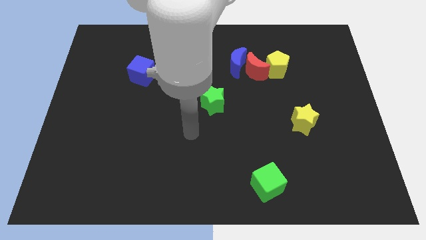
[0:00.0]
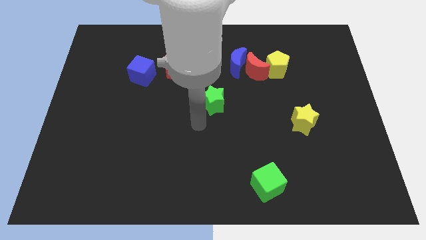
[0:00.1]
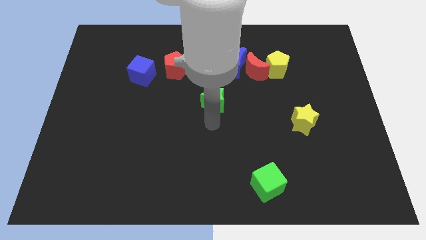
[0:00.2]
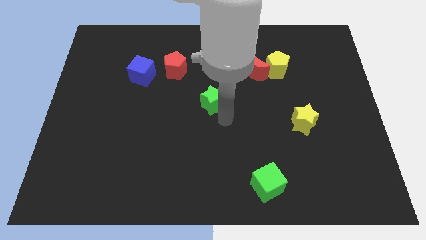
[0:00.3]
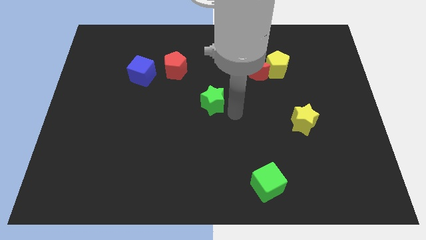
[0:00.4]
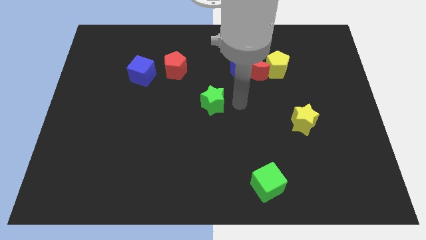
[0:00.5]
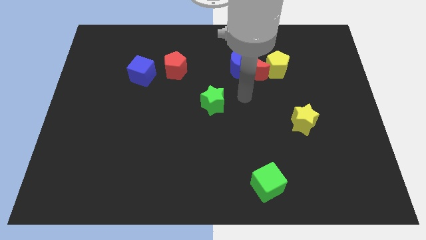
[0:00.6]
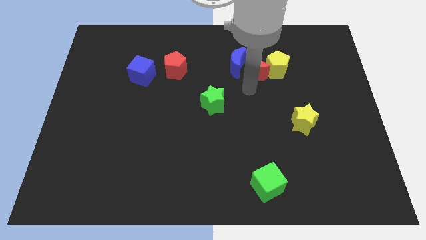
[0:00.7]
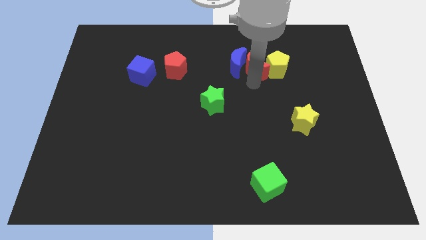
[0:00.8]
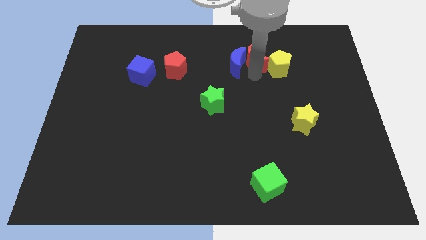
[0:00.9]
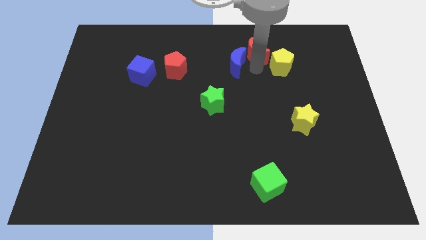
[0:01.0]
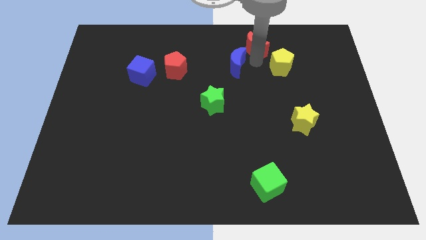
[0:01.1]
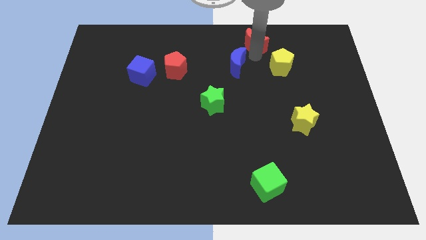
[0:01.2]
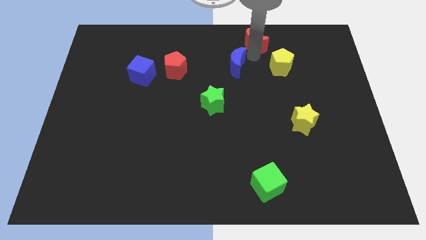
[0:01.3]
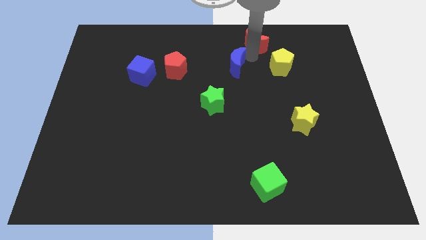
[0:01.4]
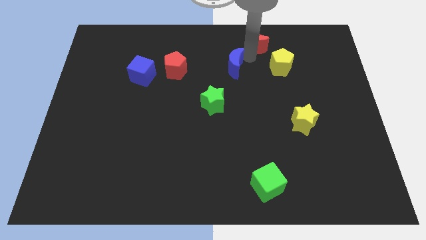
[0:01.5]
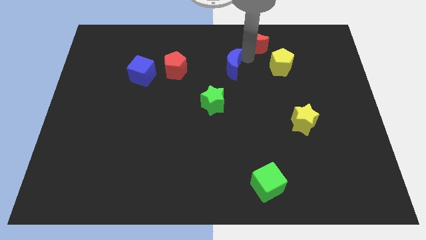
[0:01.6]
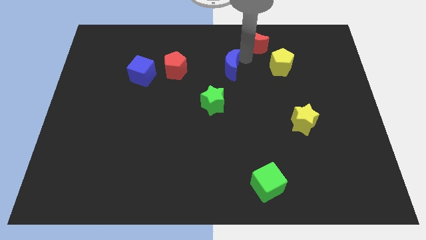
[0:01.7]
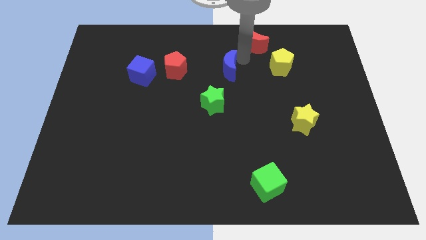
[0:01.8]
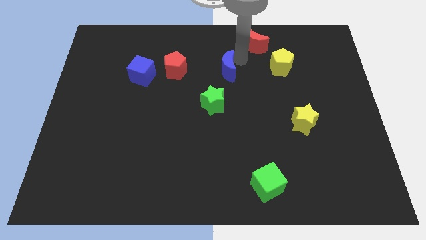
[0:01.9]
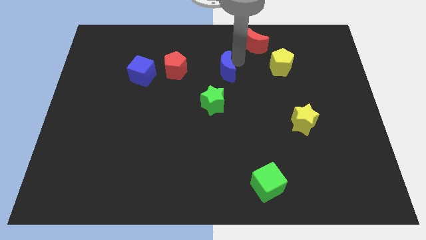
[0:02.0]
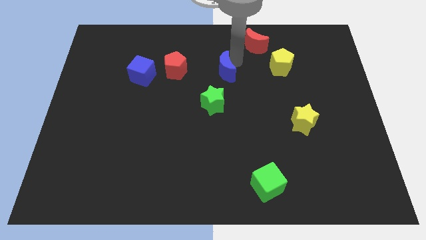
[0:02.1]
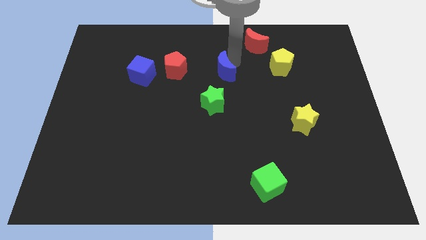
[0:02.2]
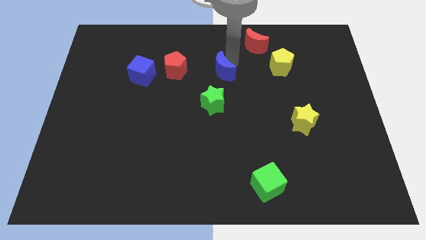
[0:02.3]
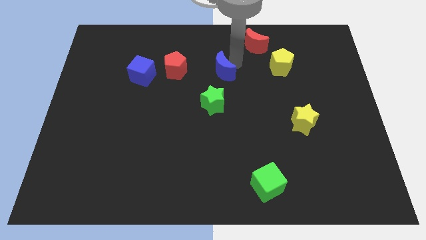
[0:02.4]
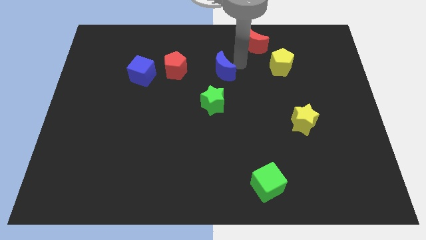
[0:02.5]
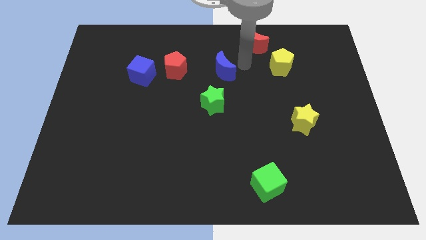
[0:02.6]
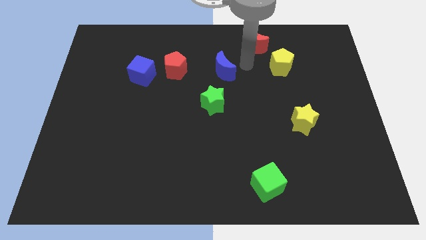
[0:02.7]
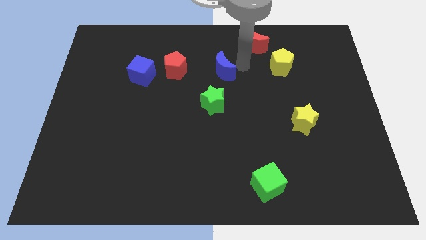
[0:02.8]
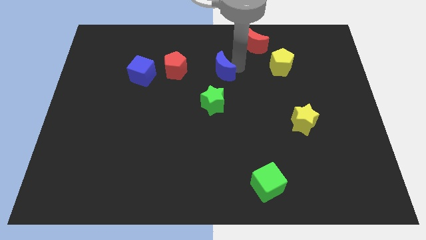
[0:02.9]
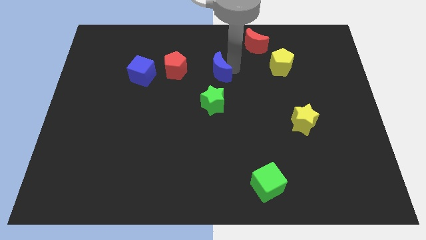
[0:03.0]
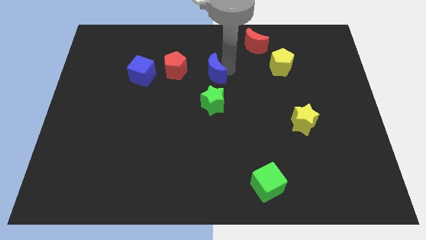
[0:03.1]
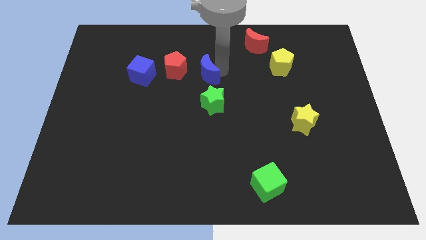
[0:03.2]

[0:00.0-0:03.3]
move the blue moon slightly downwards and then to the left

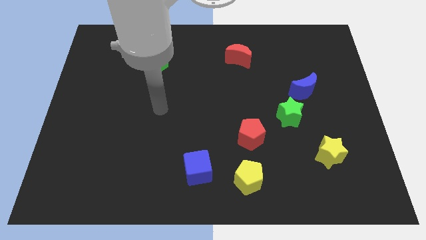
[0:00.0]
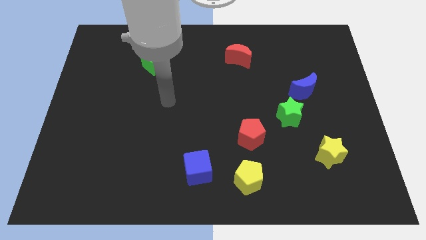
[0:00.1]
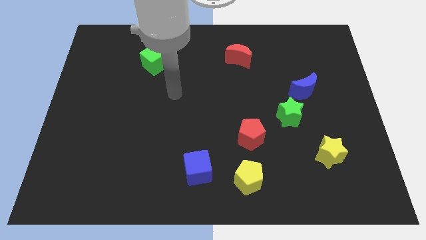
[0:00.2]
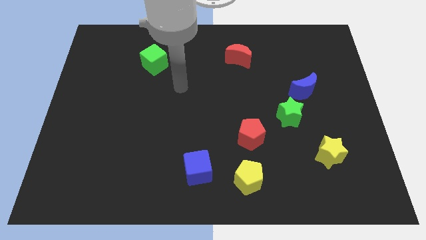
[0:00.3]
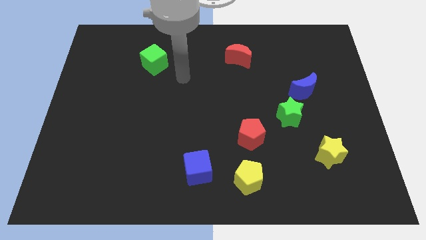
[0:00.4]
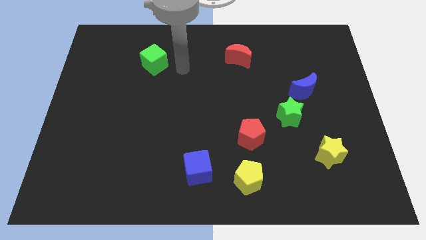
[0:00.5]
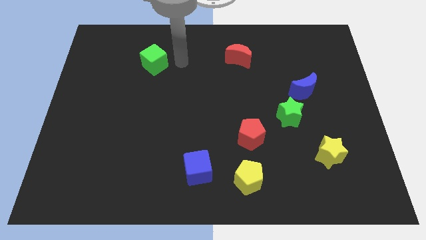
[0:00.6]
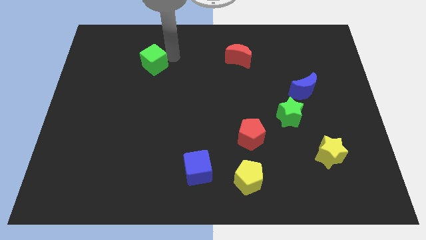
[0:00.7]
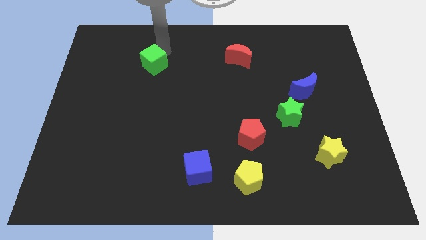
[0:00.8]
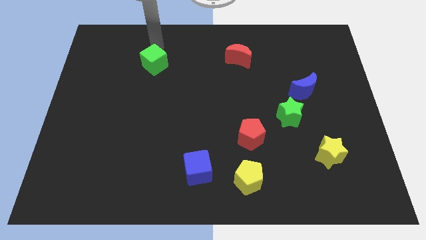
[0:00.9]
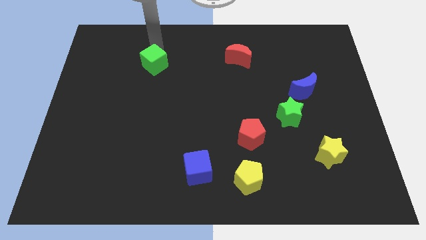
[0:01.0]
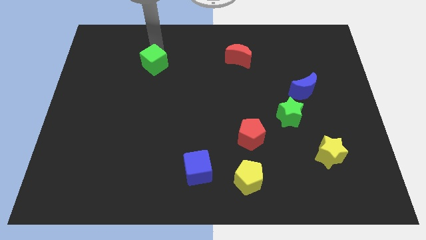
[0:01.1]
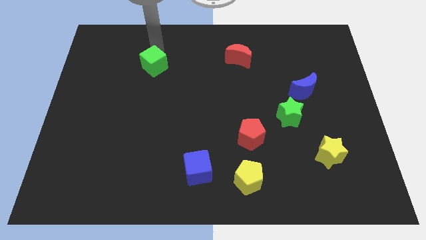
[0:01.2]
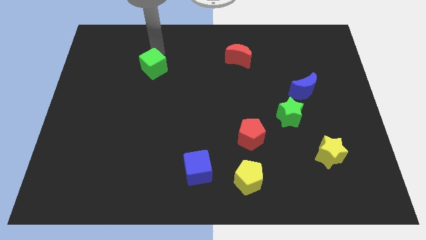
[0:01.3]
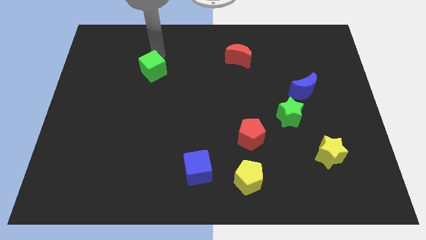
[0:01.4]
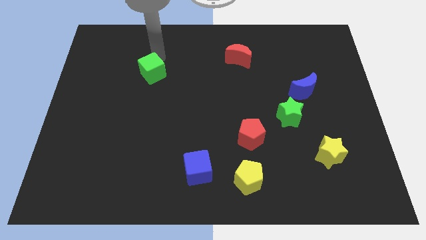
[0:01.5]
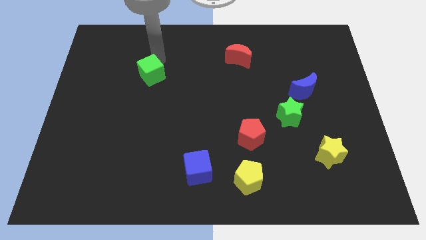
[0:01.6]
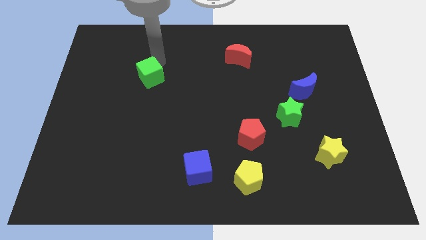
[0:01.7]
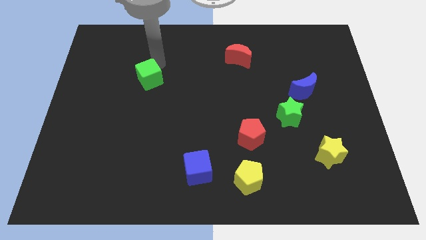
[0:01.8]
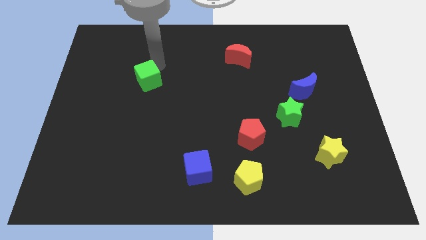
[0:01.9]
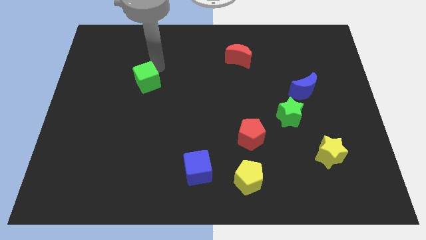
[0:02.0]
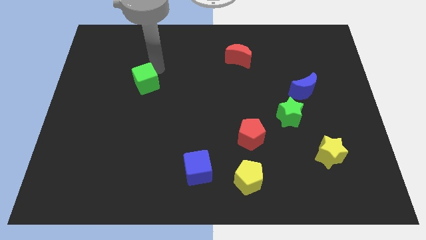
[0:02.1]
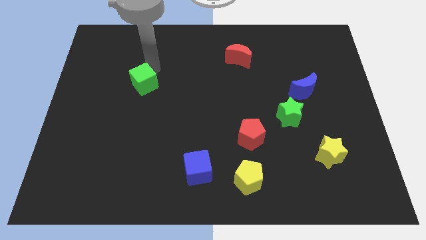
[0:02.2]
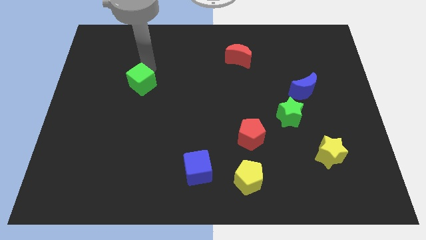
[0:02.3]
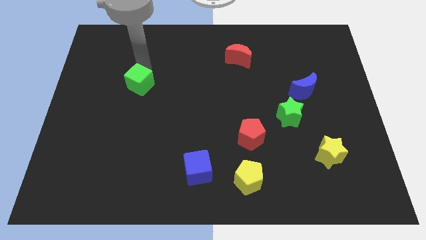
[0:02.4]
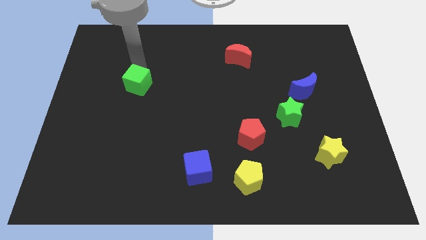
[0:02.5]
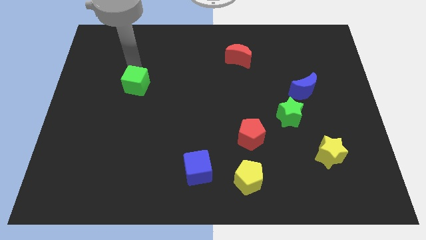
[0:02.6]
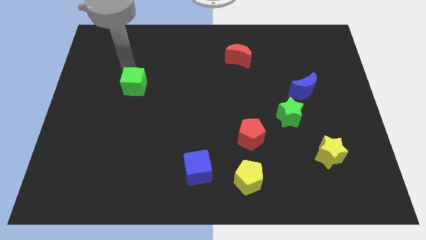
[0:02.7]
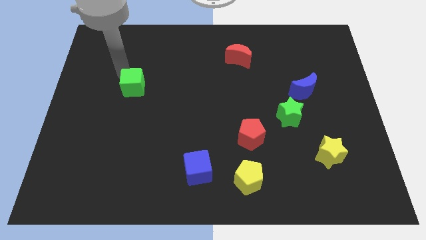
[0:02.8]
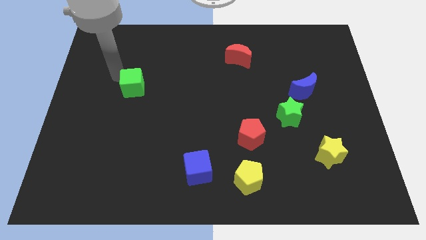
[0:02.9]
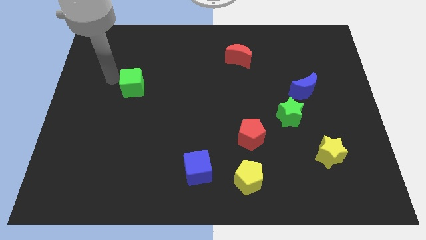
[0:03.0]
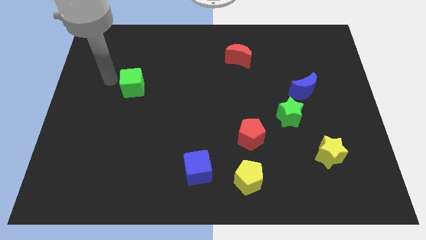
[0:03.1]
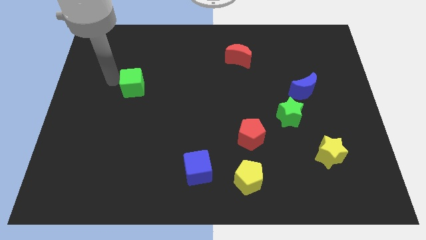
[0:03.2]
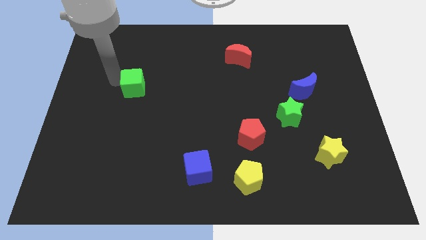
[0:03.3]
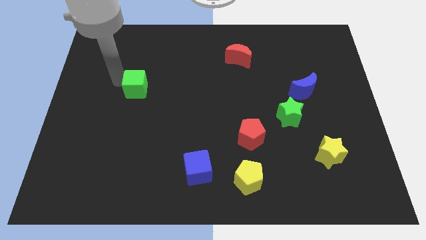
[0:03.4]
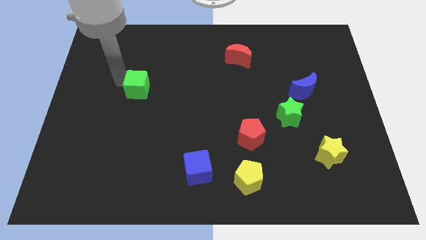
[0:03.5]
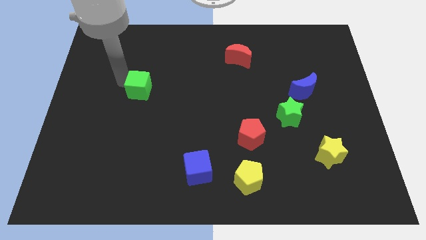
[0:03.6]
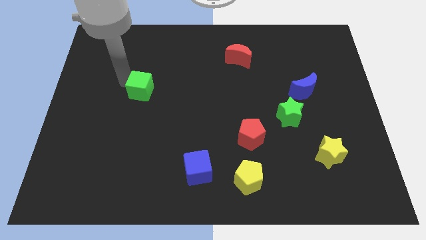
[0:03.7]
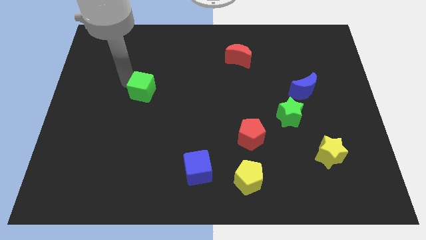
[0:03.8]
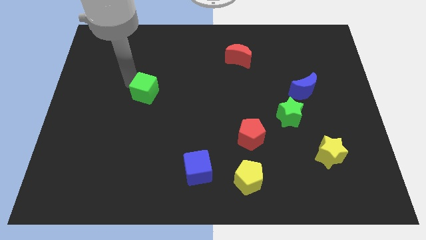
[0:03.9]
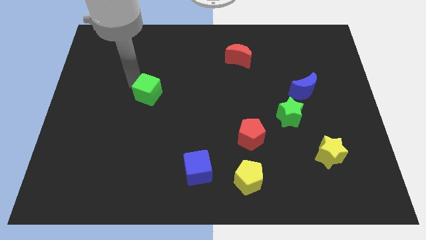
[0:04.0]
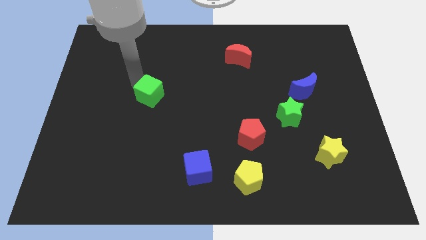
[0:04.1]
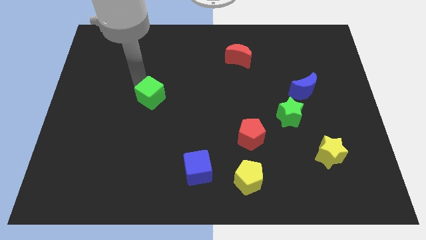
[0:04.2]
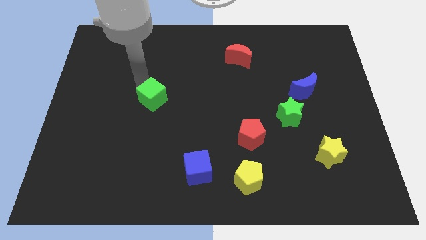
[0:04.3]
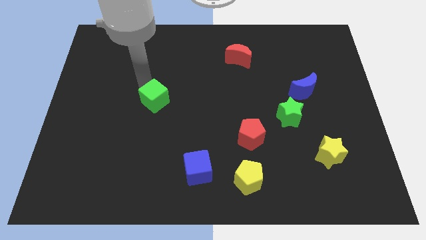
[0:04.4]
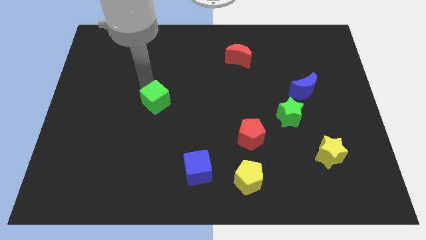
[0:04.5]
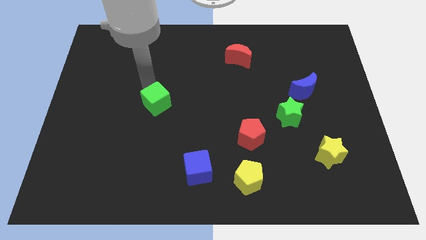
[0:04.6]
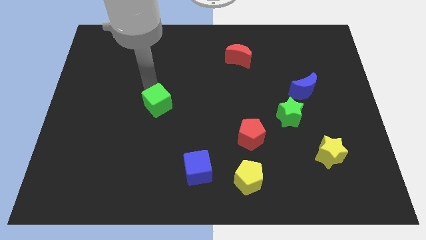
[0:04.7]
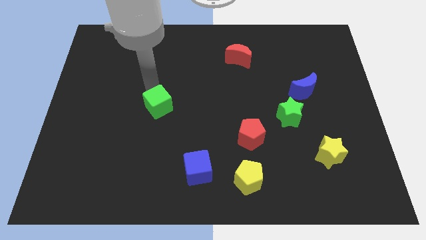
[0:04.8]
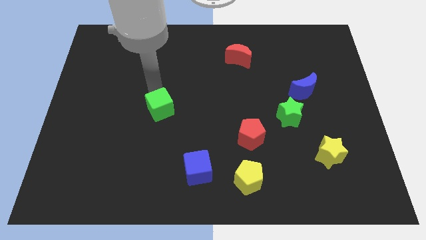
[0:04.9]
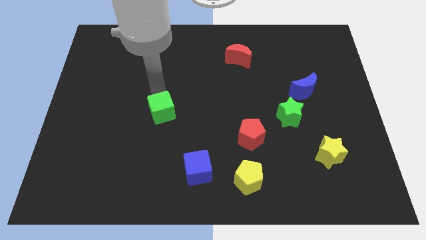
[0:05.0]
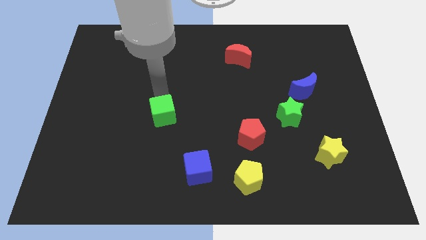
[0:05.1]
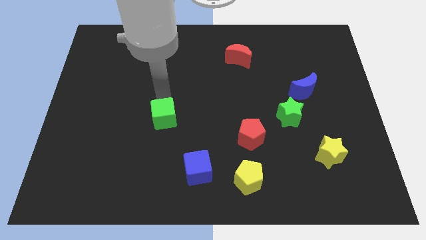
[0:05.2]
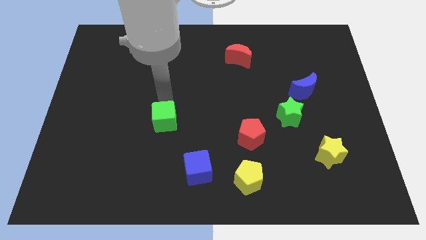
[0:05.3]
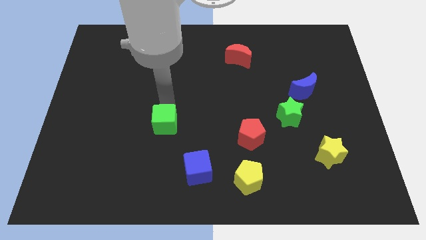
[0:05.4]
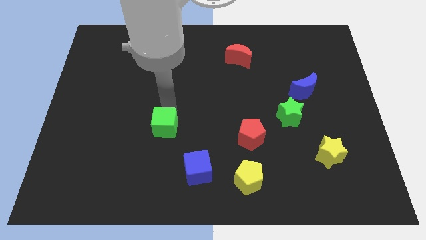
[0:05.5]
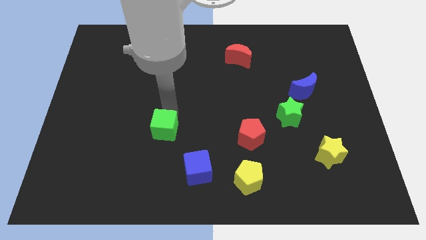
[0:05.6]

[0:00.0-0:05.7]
move the green cube downwards
